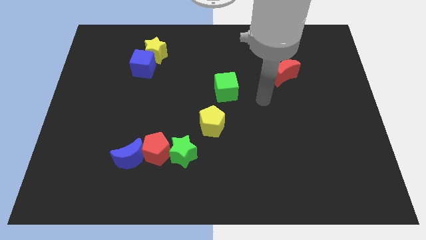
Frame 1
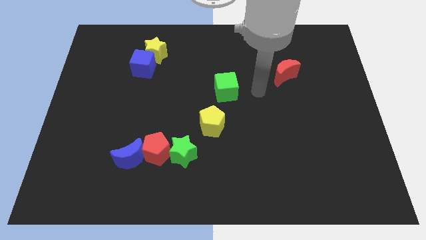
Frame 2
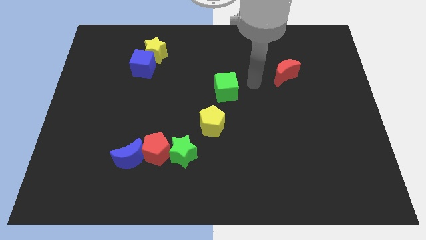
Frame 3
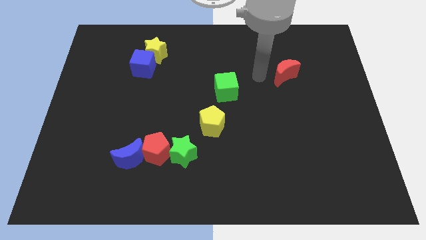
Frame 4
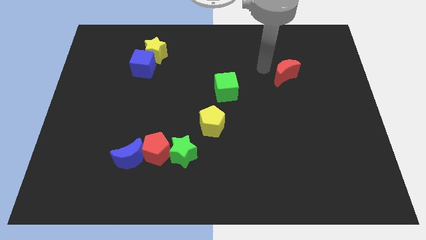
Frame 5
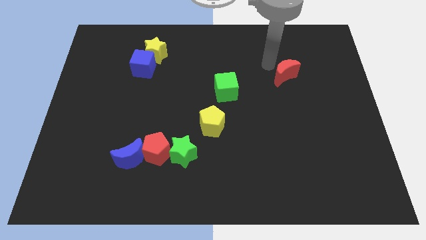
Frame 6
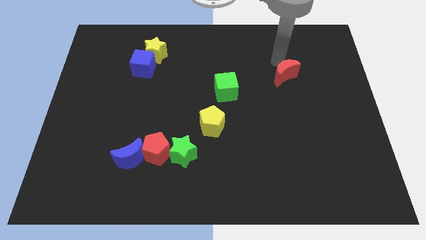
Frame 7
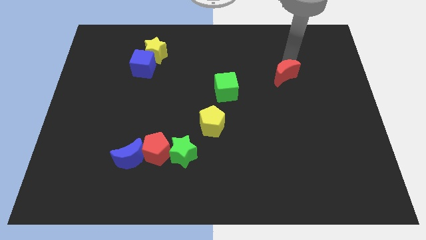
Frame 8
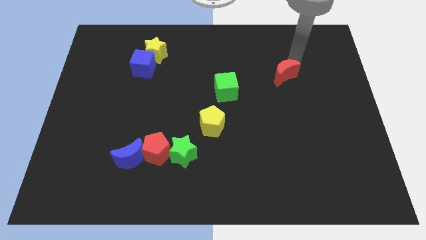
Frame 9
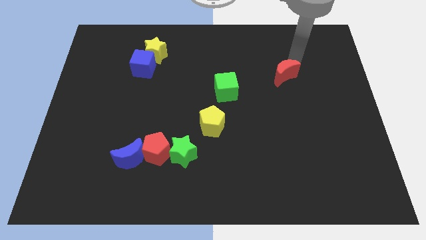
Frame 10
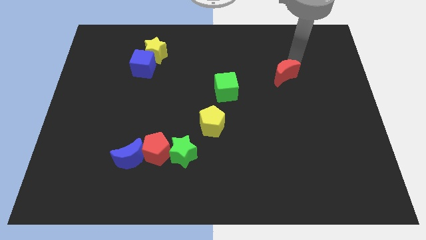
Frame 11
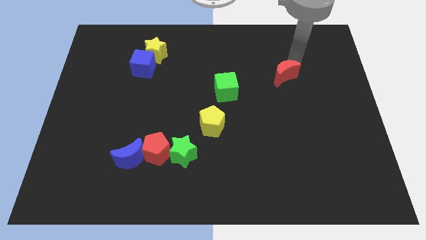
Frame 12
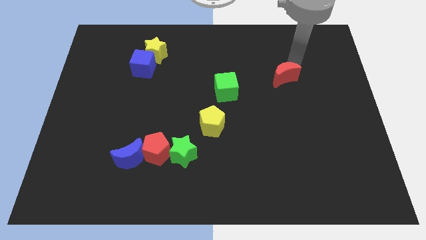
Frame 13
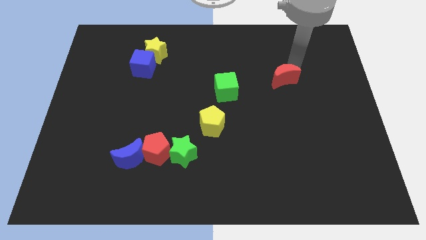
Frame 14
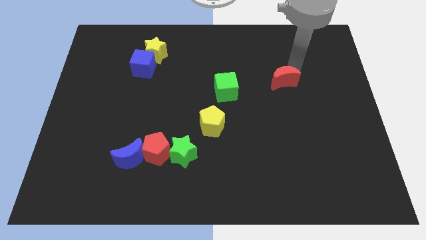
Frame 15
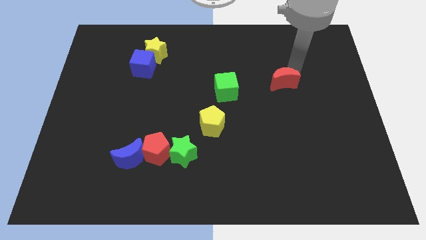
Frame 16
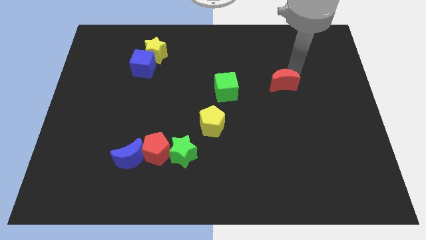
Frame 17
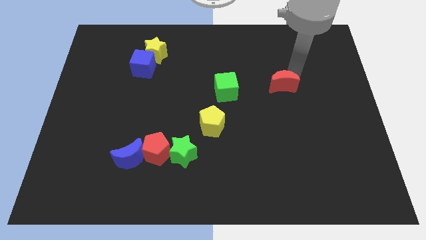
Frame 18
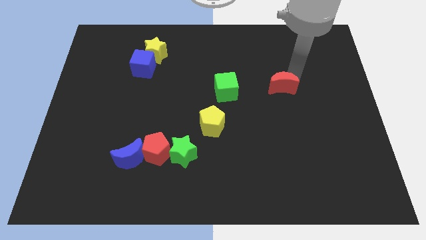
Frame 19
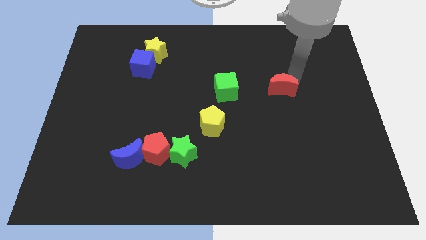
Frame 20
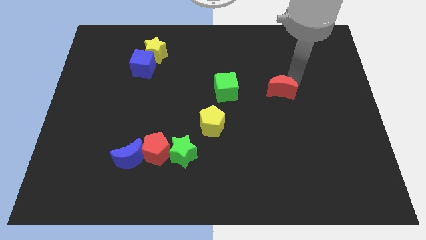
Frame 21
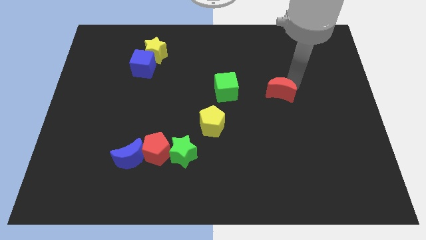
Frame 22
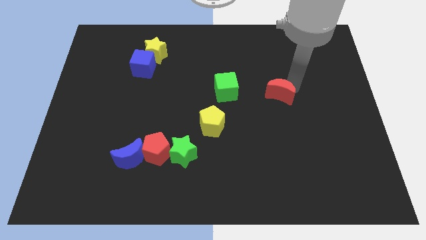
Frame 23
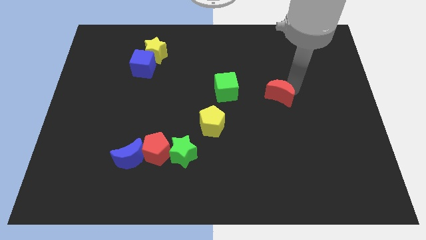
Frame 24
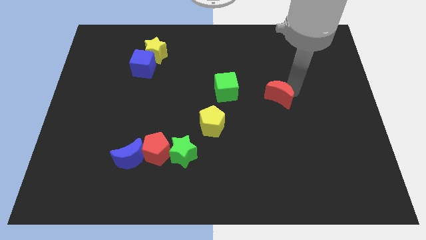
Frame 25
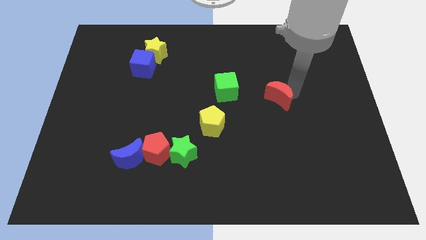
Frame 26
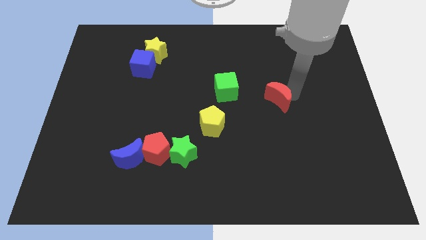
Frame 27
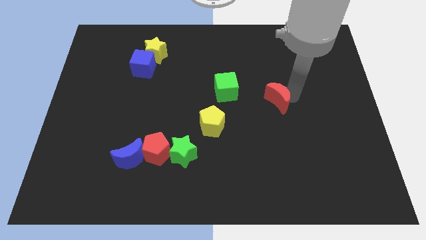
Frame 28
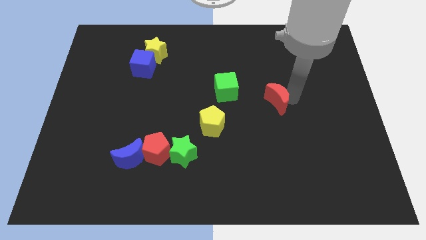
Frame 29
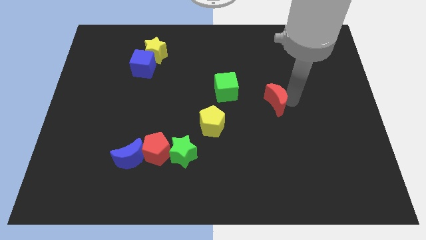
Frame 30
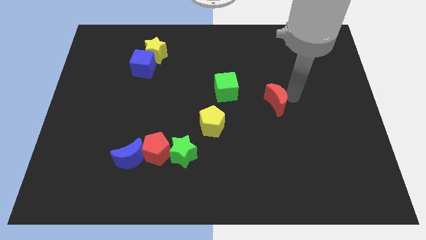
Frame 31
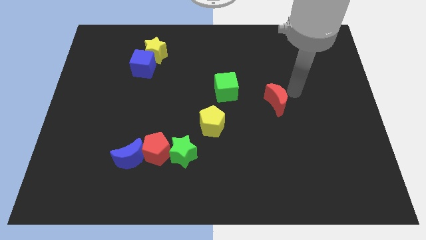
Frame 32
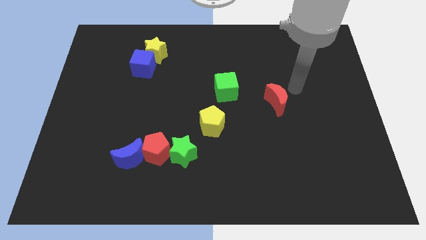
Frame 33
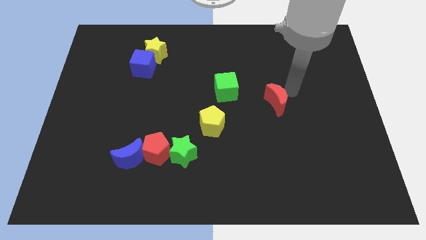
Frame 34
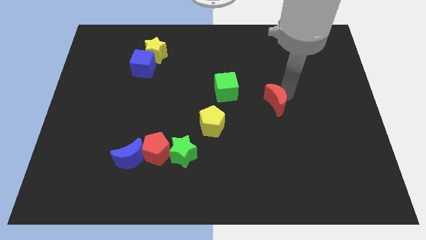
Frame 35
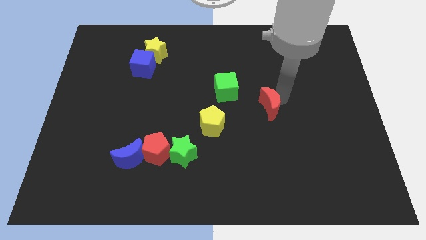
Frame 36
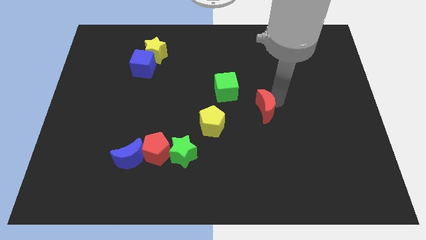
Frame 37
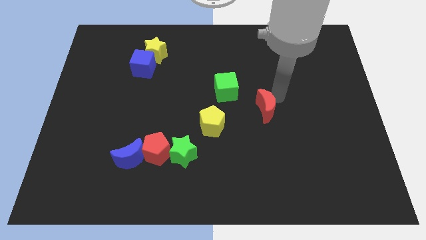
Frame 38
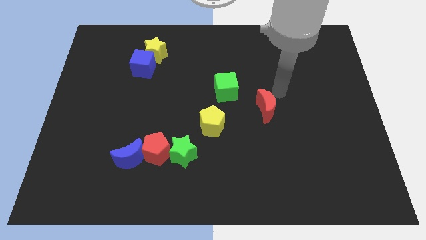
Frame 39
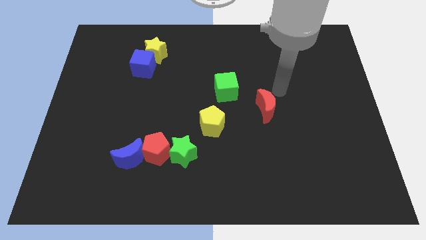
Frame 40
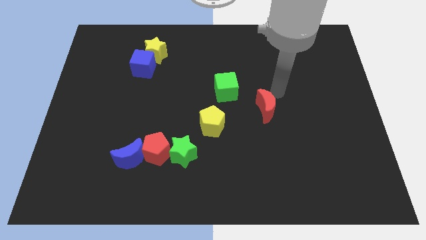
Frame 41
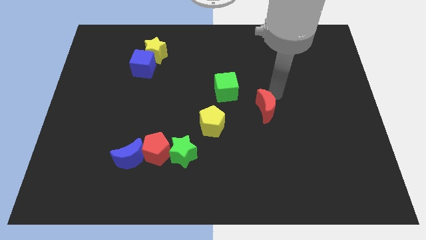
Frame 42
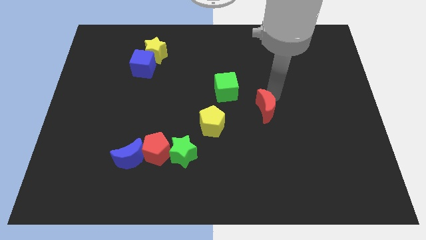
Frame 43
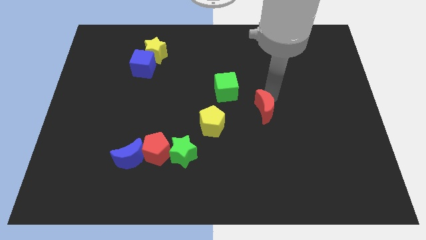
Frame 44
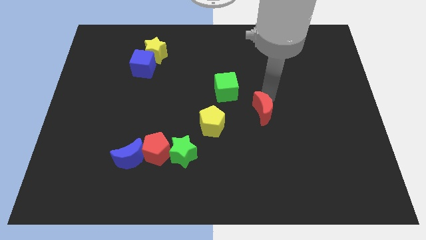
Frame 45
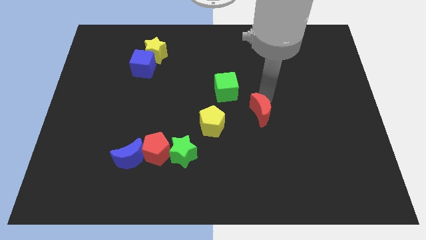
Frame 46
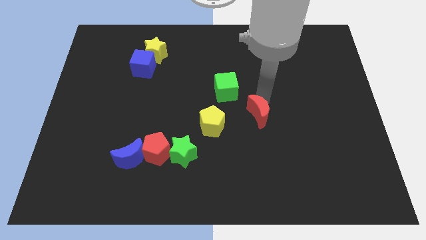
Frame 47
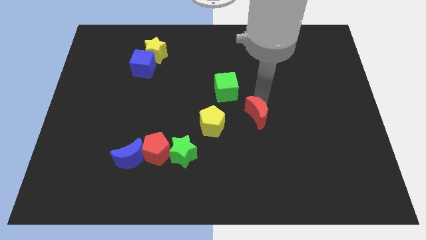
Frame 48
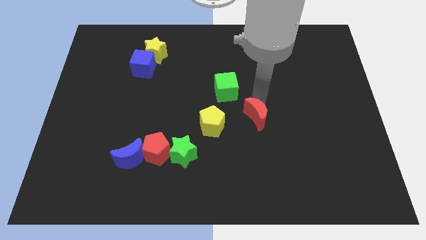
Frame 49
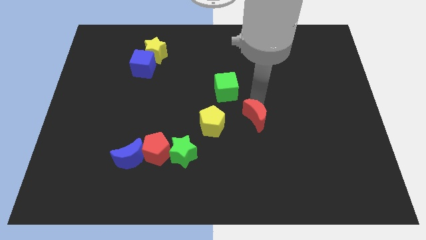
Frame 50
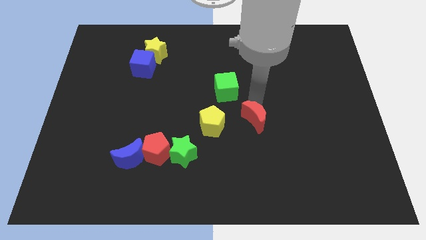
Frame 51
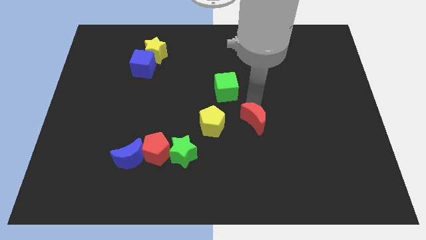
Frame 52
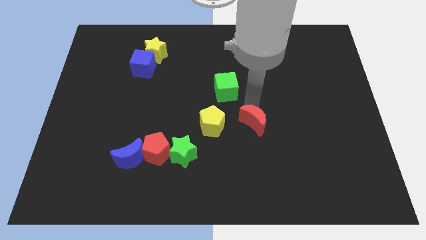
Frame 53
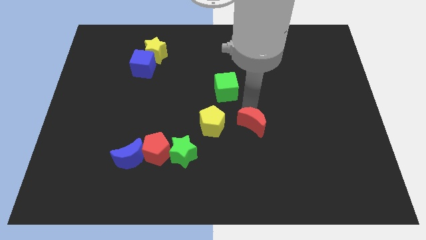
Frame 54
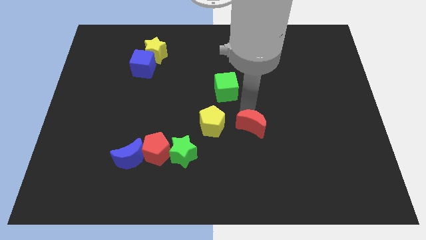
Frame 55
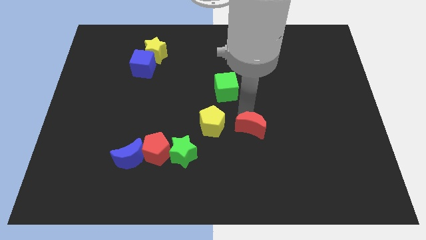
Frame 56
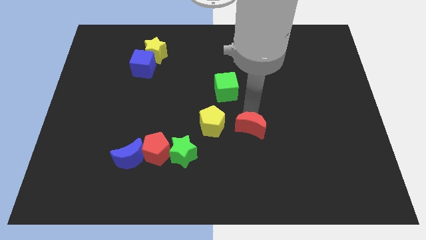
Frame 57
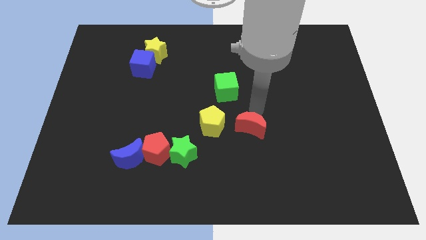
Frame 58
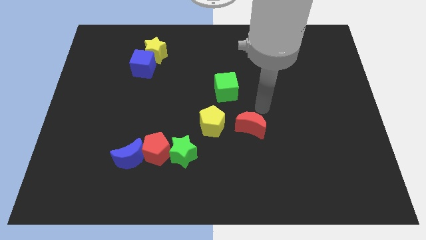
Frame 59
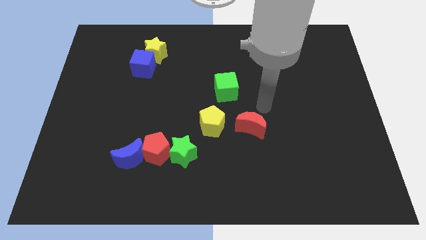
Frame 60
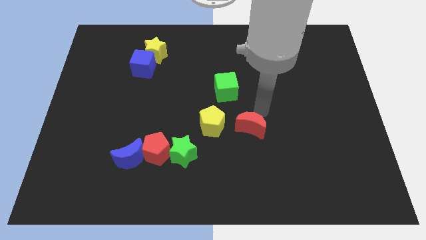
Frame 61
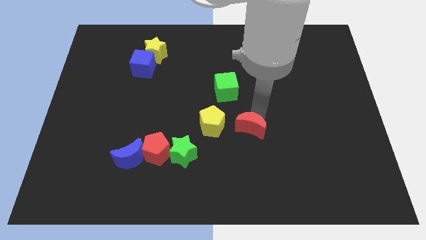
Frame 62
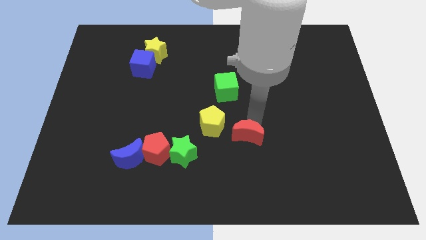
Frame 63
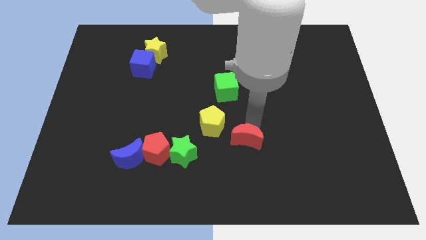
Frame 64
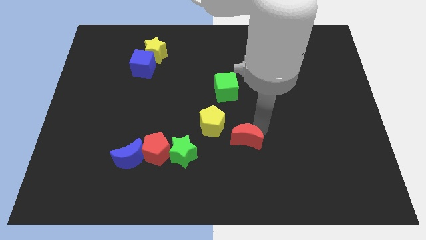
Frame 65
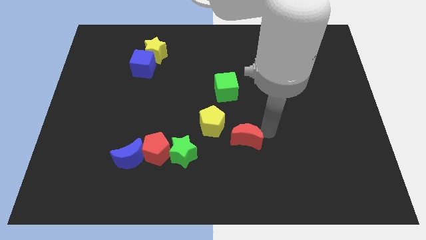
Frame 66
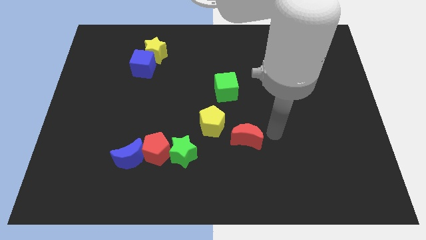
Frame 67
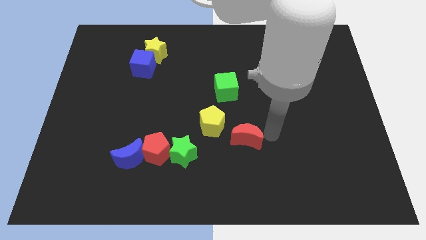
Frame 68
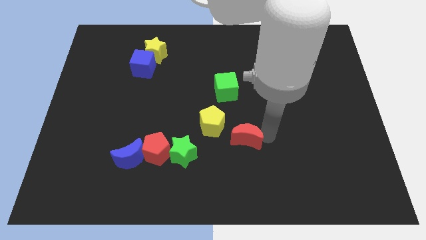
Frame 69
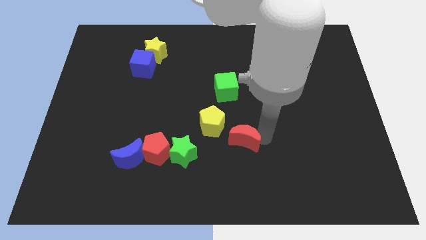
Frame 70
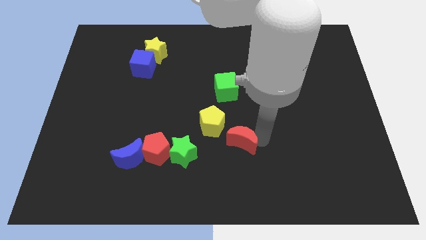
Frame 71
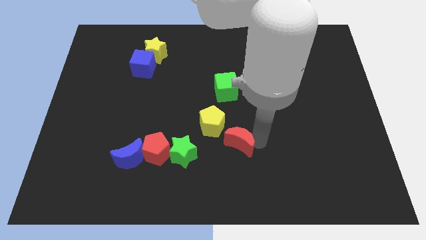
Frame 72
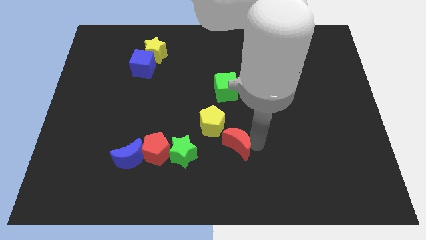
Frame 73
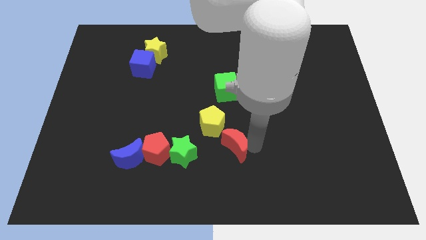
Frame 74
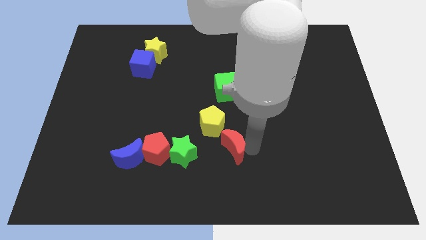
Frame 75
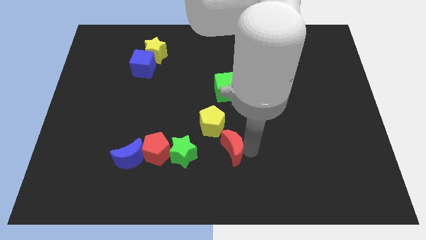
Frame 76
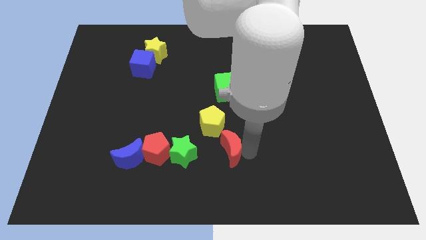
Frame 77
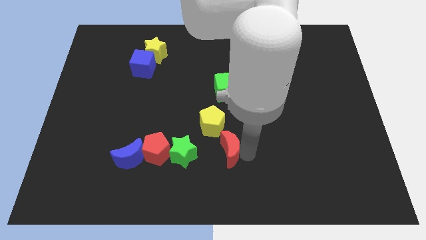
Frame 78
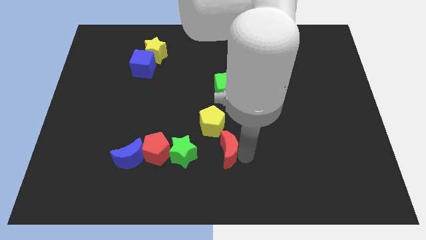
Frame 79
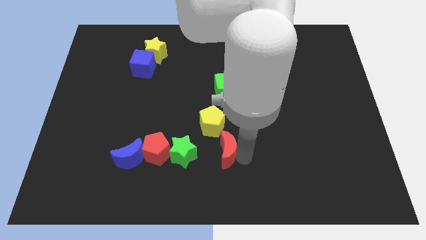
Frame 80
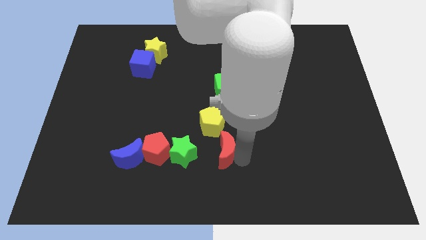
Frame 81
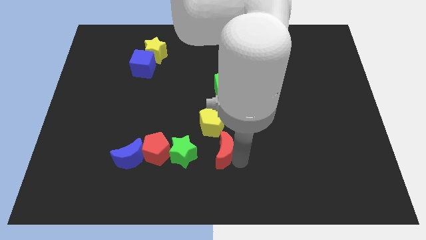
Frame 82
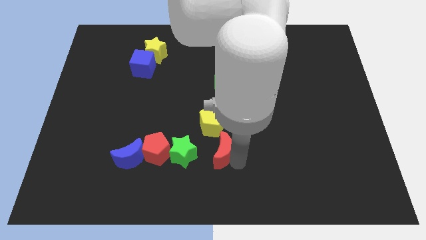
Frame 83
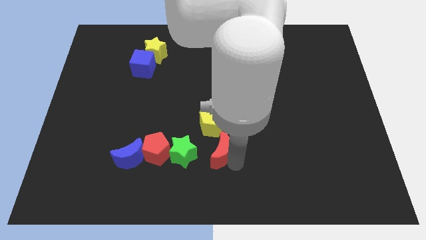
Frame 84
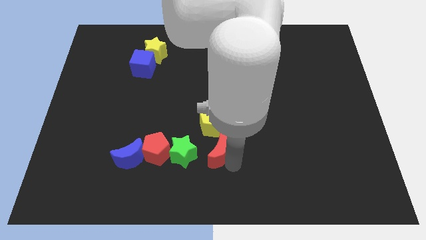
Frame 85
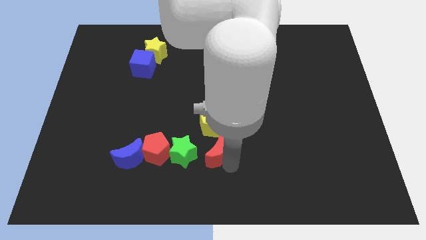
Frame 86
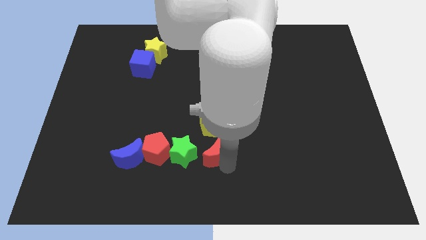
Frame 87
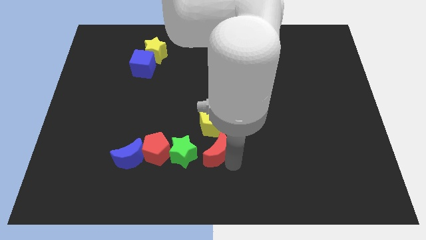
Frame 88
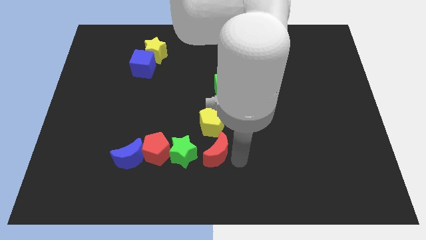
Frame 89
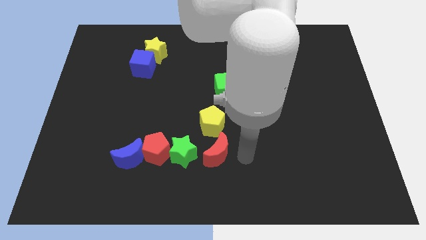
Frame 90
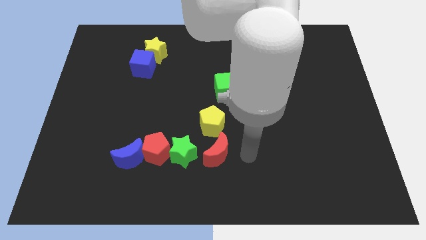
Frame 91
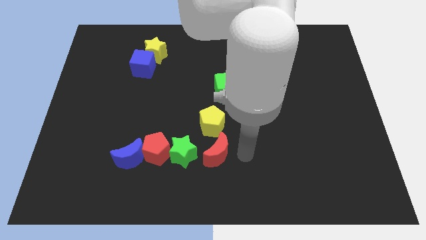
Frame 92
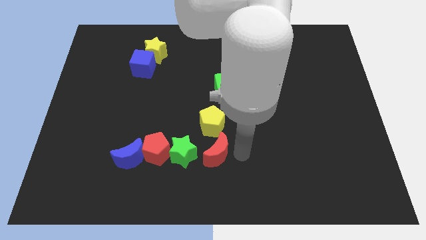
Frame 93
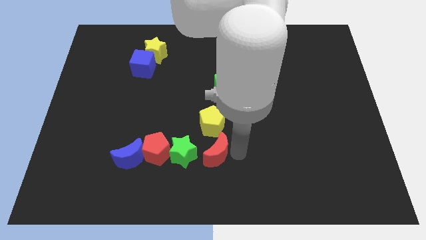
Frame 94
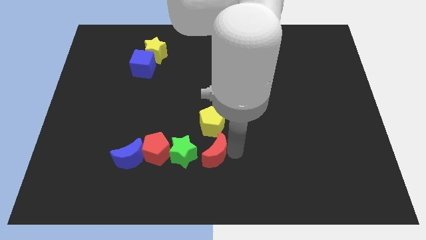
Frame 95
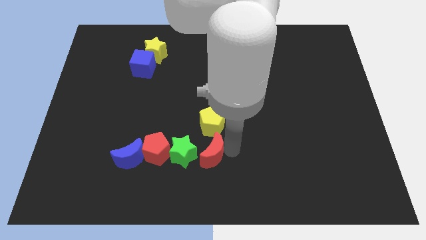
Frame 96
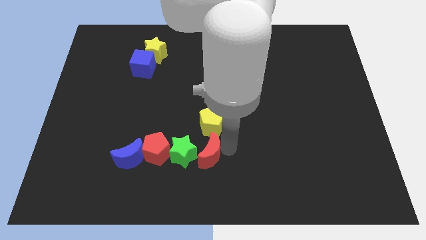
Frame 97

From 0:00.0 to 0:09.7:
put the red moon towards the green star
